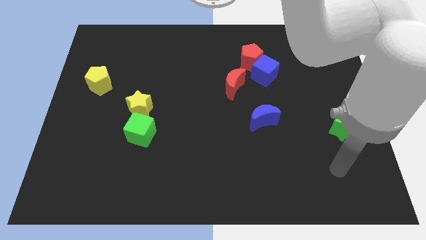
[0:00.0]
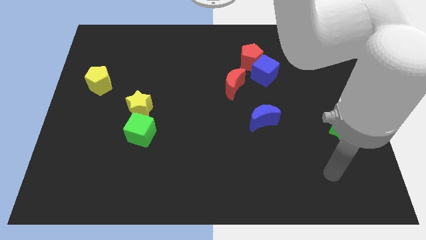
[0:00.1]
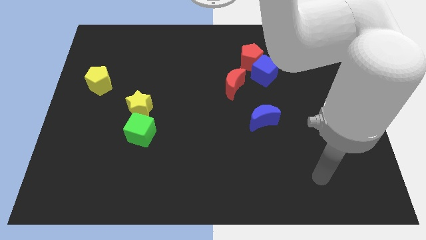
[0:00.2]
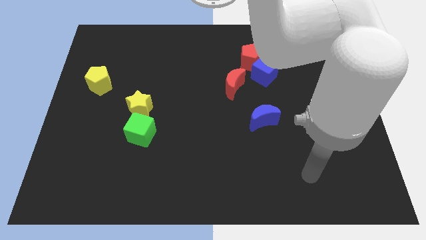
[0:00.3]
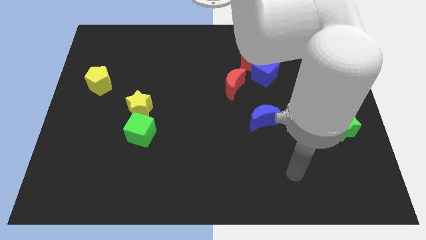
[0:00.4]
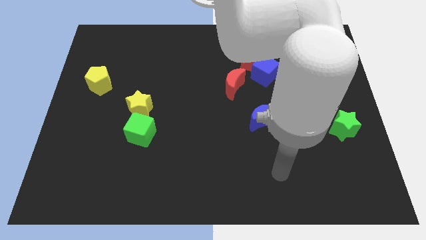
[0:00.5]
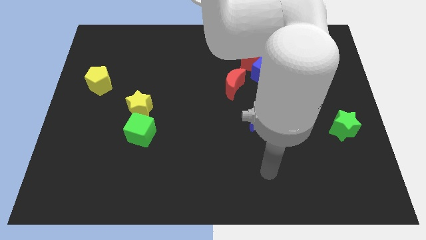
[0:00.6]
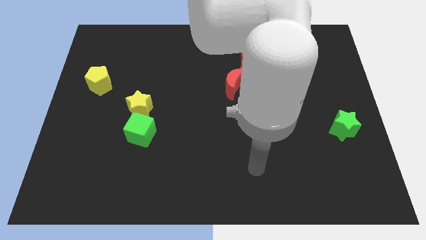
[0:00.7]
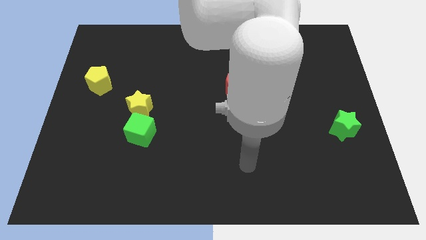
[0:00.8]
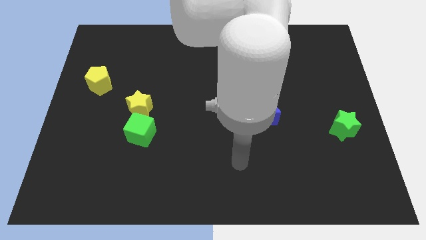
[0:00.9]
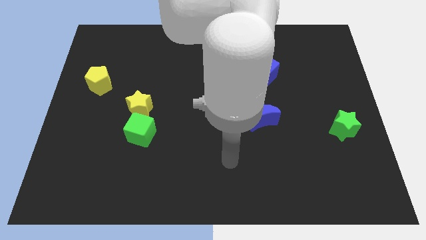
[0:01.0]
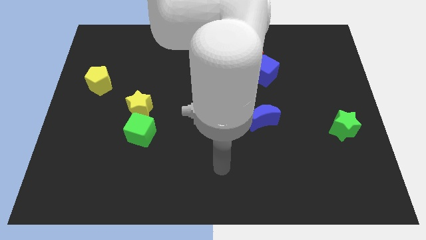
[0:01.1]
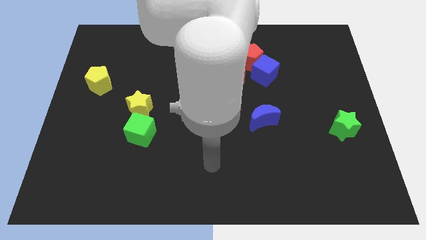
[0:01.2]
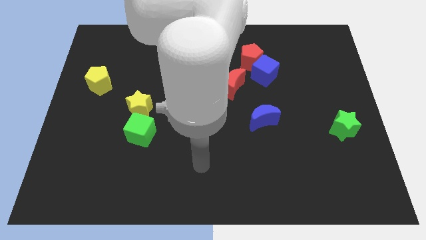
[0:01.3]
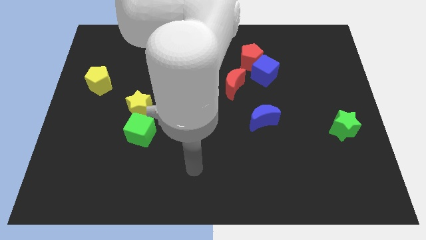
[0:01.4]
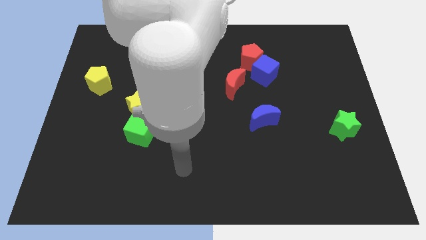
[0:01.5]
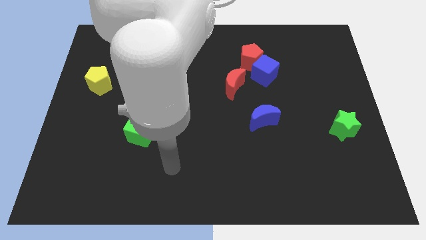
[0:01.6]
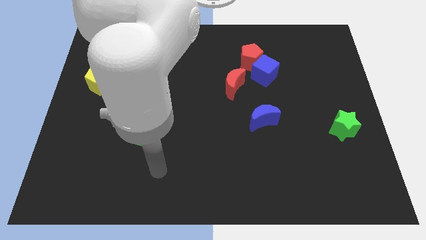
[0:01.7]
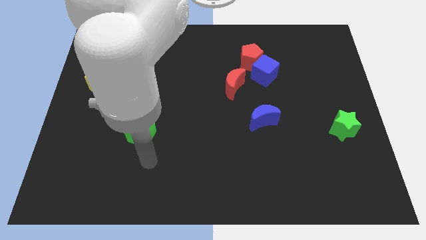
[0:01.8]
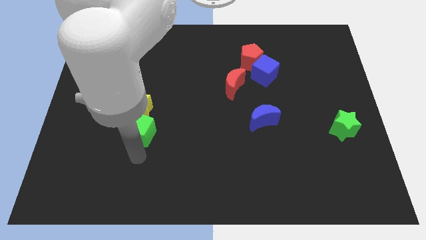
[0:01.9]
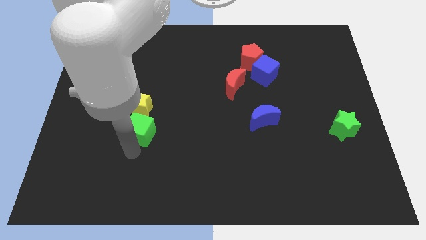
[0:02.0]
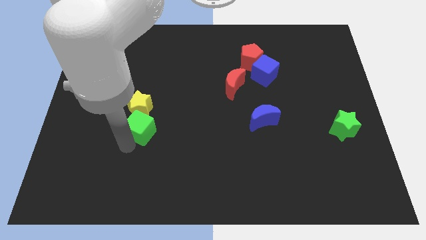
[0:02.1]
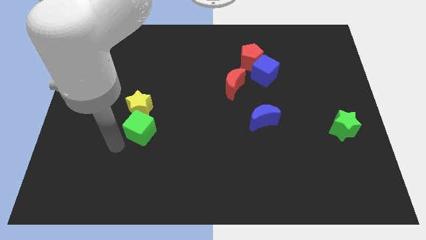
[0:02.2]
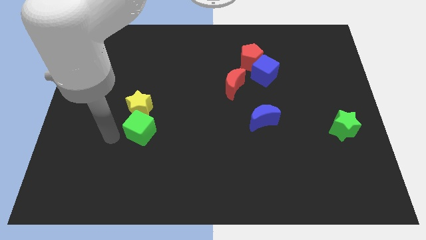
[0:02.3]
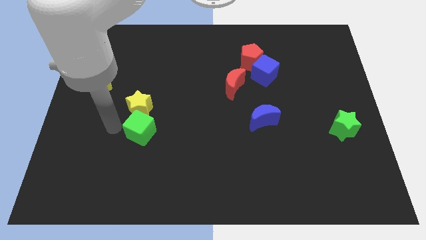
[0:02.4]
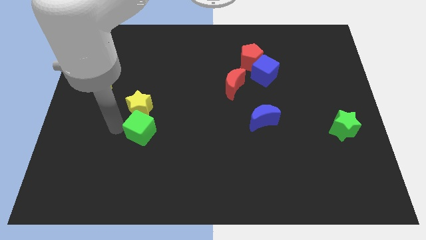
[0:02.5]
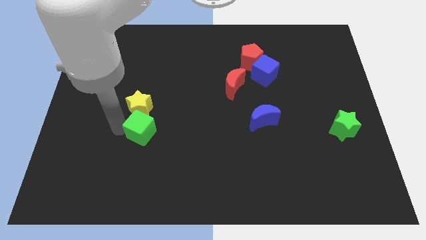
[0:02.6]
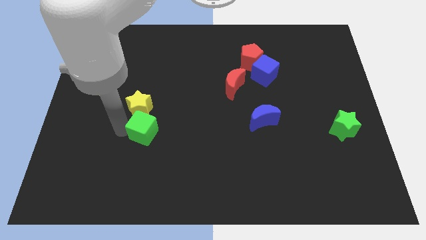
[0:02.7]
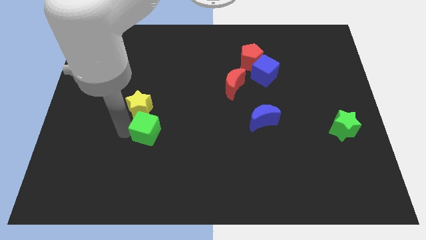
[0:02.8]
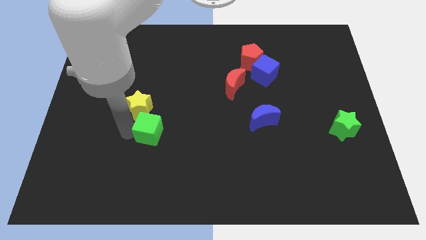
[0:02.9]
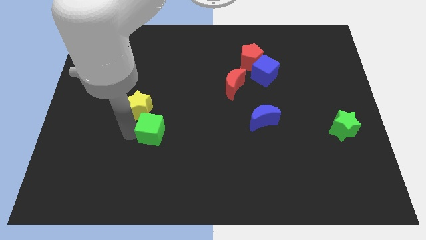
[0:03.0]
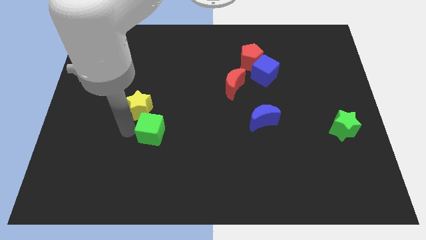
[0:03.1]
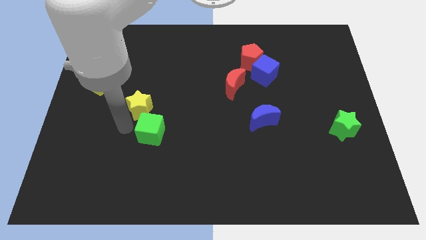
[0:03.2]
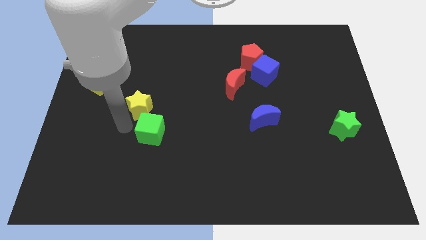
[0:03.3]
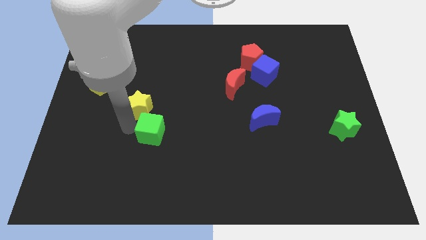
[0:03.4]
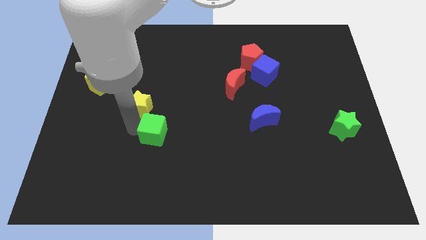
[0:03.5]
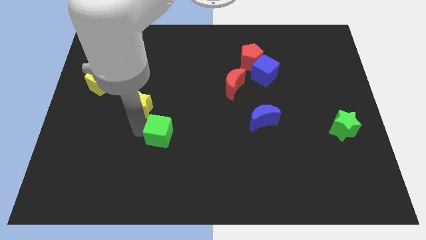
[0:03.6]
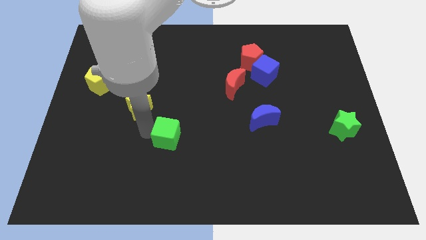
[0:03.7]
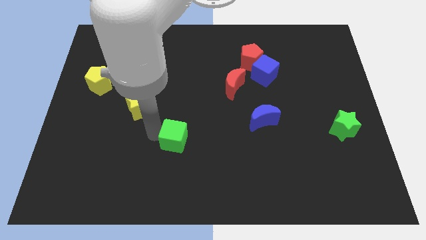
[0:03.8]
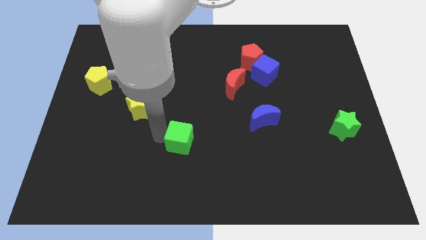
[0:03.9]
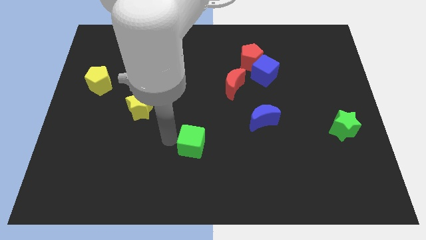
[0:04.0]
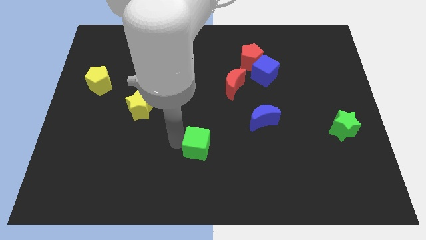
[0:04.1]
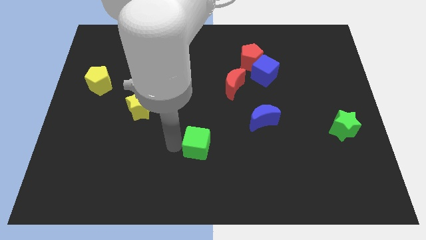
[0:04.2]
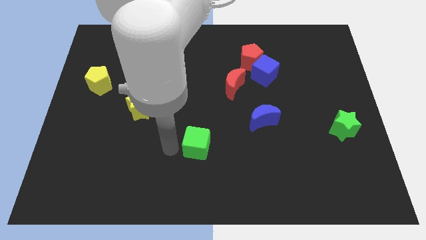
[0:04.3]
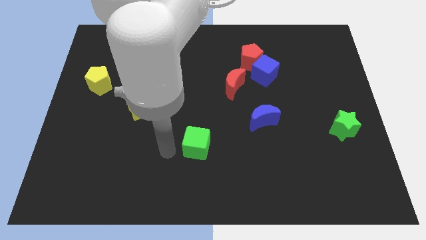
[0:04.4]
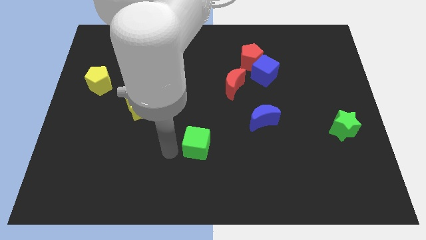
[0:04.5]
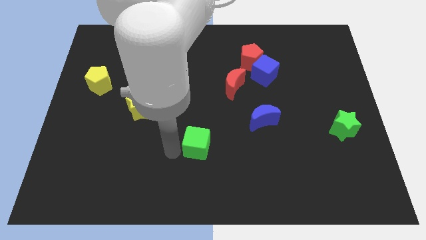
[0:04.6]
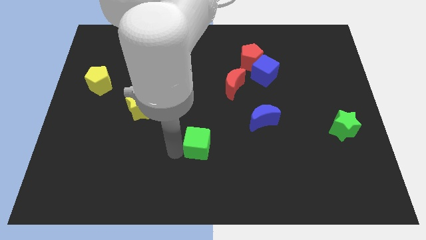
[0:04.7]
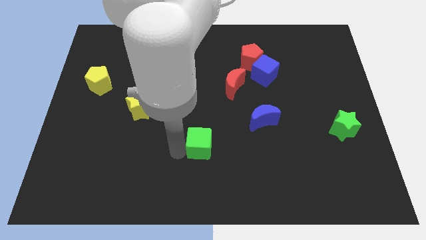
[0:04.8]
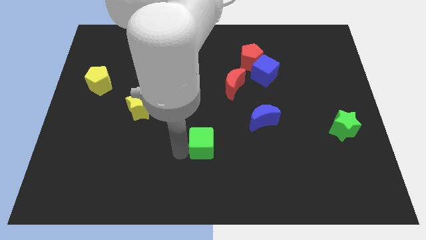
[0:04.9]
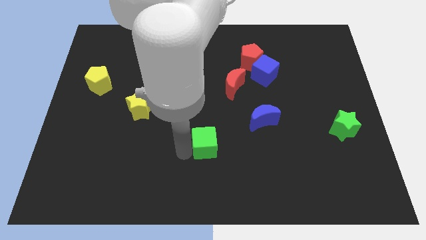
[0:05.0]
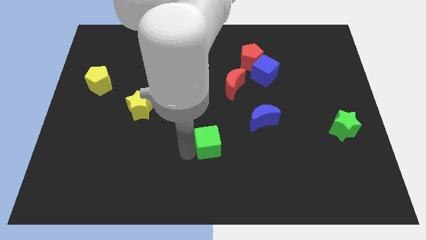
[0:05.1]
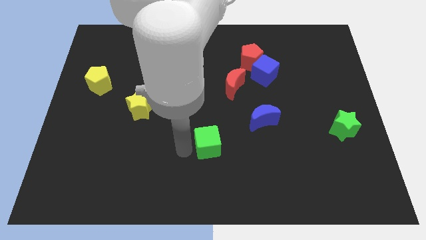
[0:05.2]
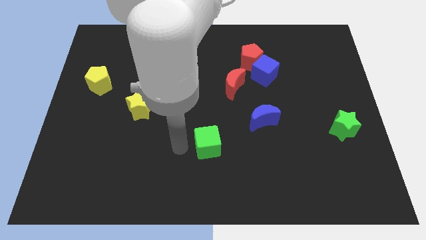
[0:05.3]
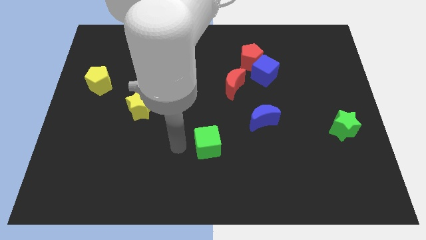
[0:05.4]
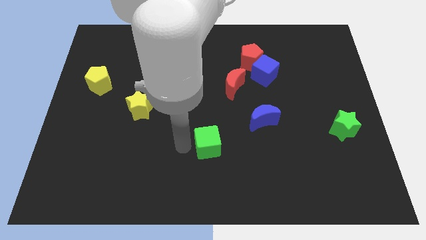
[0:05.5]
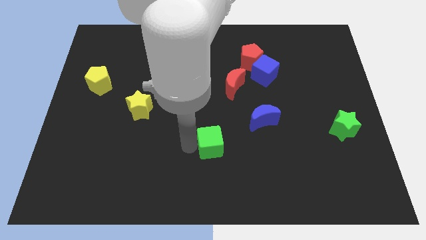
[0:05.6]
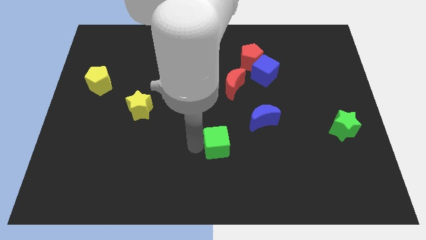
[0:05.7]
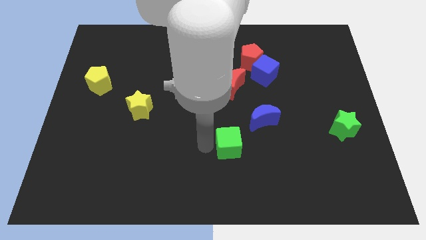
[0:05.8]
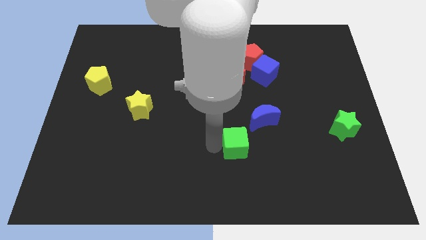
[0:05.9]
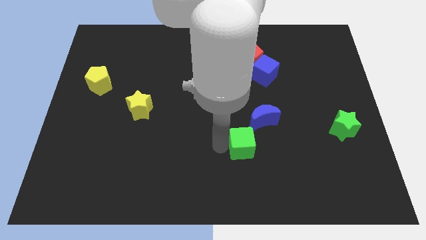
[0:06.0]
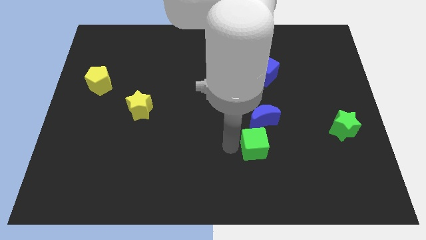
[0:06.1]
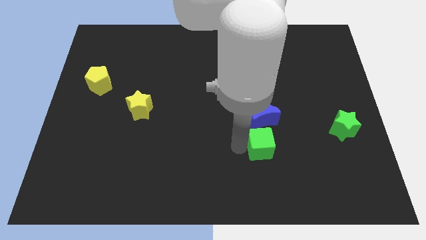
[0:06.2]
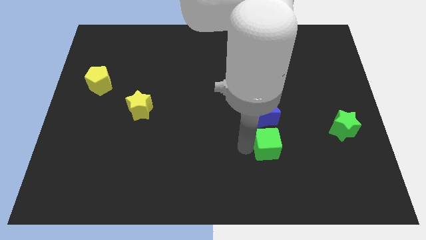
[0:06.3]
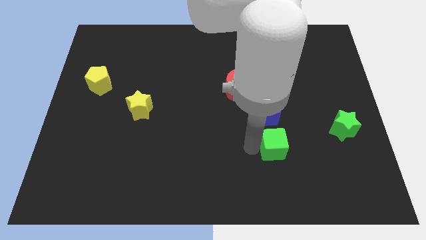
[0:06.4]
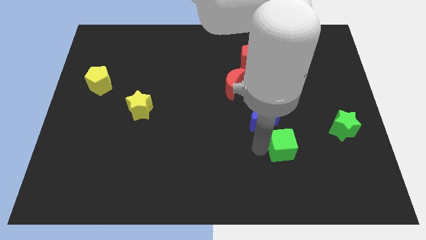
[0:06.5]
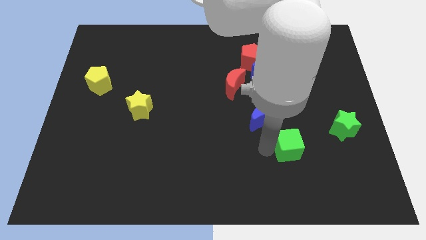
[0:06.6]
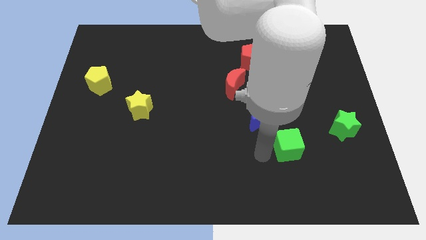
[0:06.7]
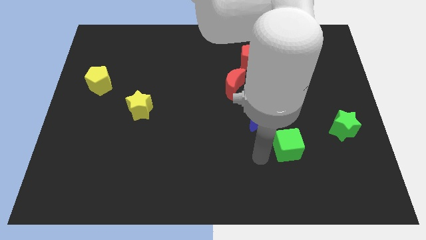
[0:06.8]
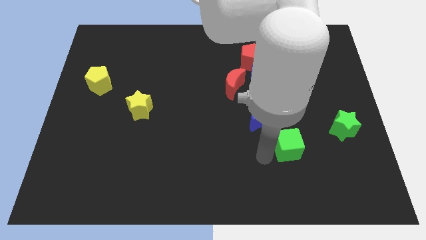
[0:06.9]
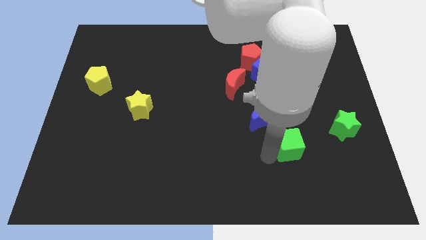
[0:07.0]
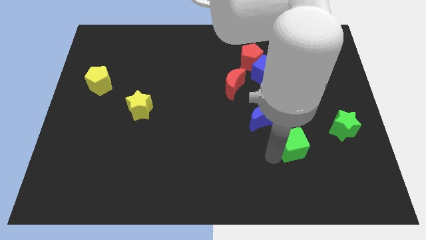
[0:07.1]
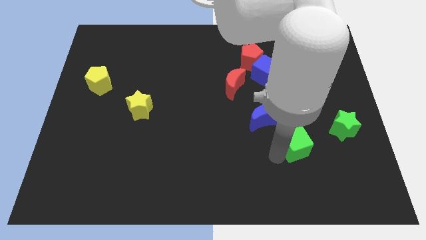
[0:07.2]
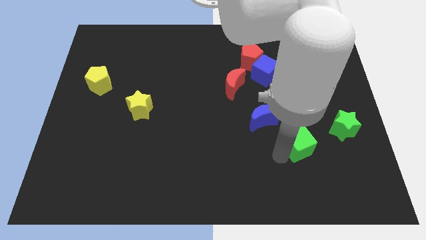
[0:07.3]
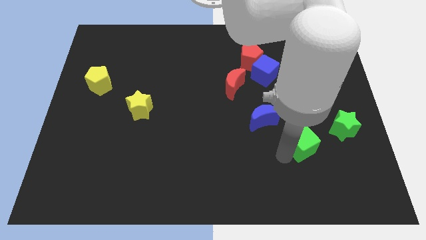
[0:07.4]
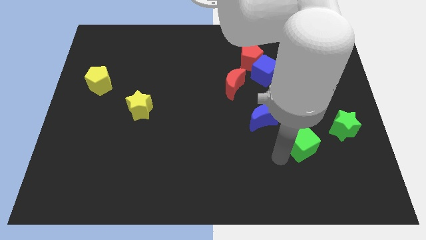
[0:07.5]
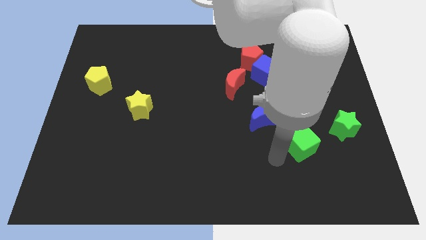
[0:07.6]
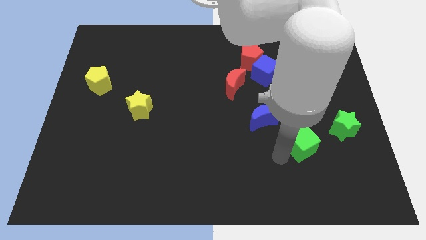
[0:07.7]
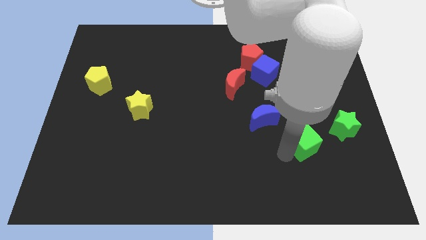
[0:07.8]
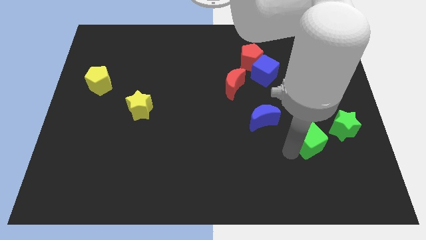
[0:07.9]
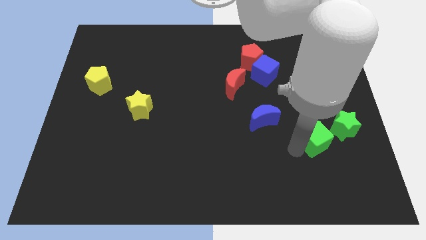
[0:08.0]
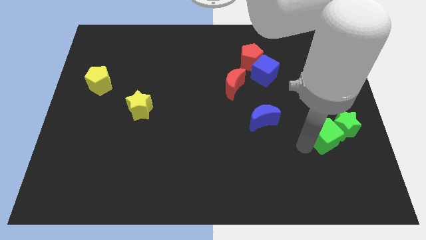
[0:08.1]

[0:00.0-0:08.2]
slide the green cube close to the green star
